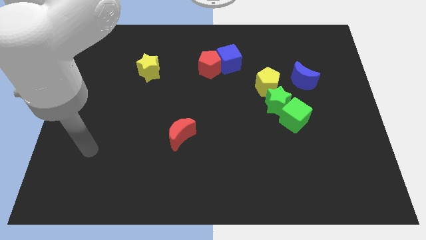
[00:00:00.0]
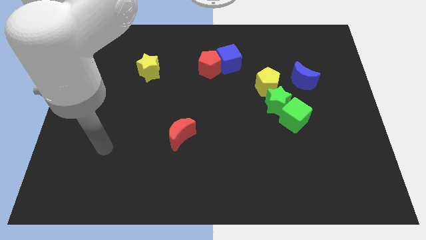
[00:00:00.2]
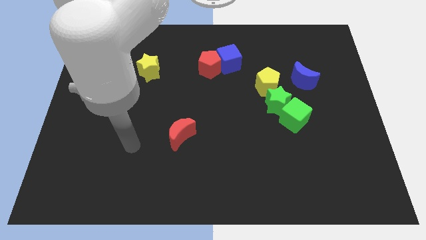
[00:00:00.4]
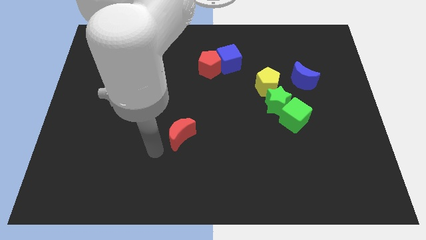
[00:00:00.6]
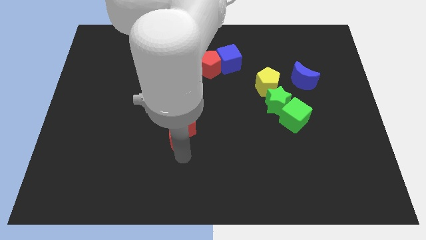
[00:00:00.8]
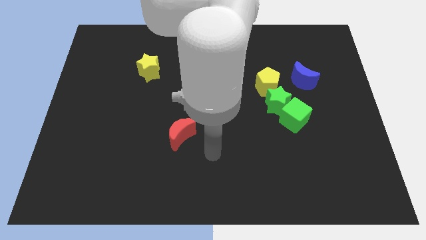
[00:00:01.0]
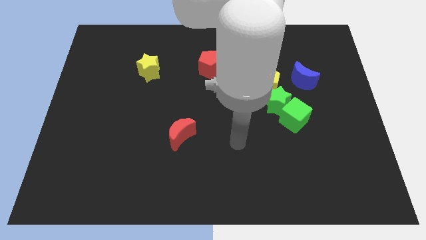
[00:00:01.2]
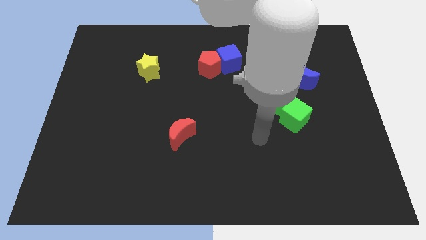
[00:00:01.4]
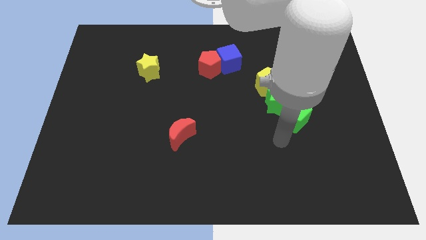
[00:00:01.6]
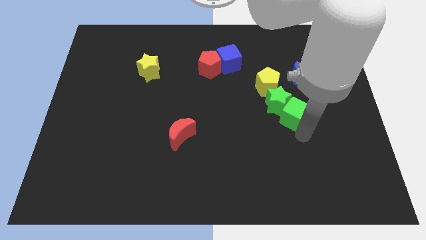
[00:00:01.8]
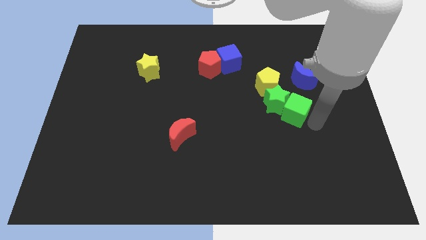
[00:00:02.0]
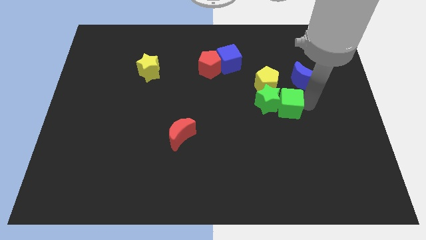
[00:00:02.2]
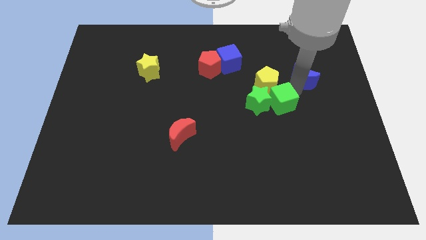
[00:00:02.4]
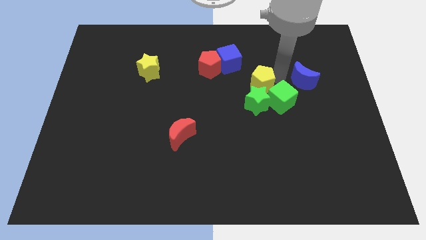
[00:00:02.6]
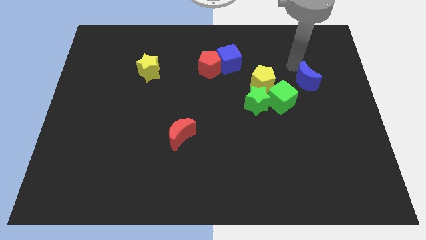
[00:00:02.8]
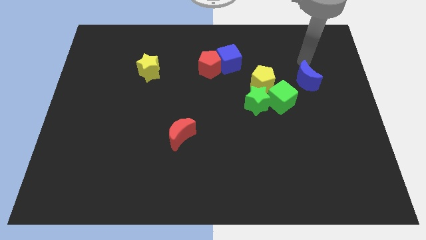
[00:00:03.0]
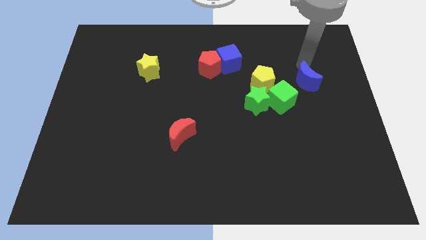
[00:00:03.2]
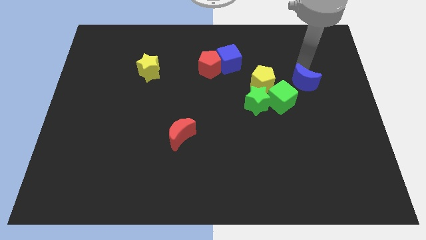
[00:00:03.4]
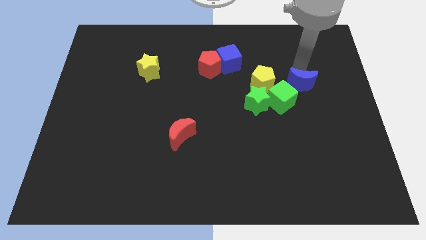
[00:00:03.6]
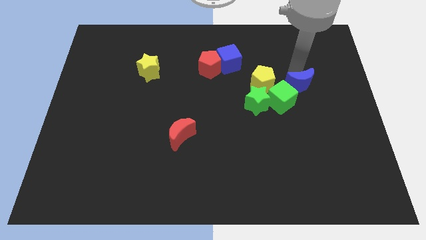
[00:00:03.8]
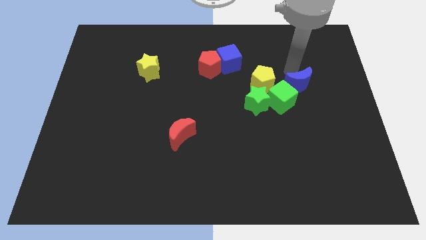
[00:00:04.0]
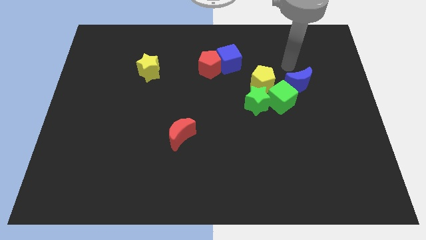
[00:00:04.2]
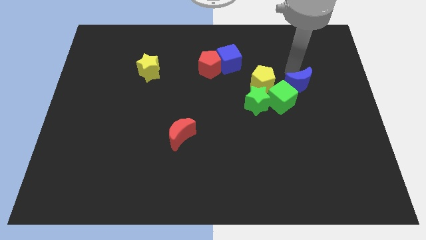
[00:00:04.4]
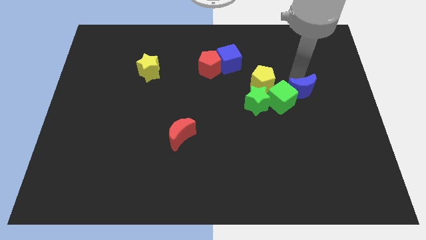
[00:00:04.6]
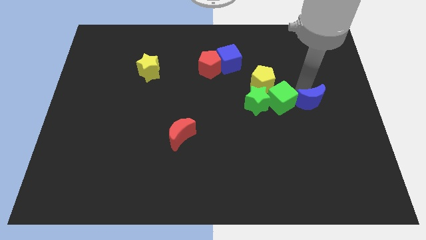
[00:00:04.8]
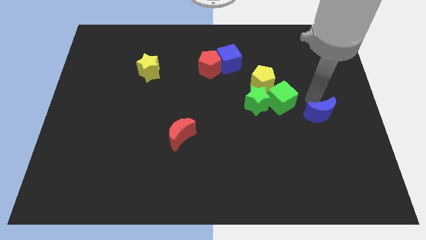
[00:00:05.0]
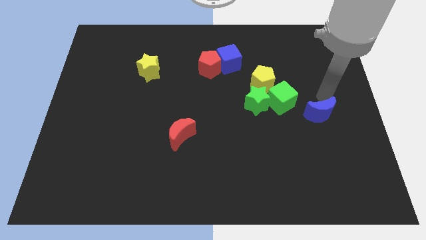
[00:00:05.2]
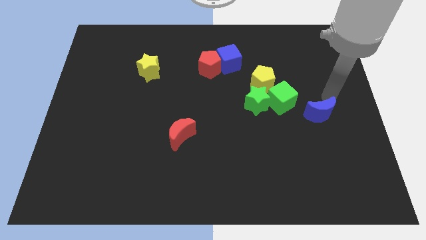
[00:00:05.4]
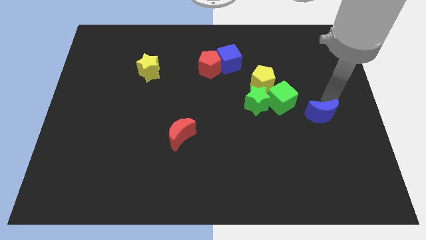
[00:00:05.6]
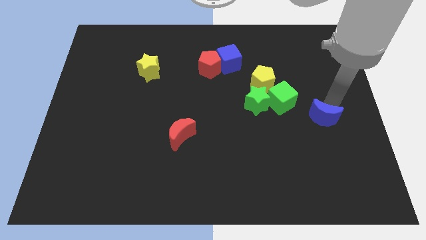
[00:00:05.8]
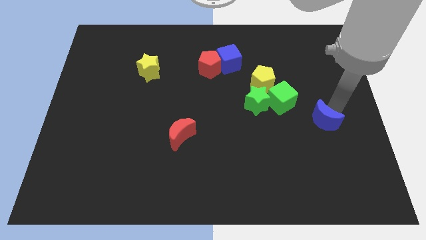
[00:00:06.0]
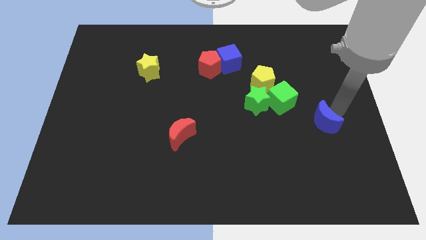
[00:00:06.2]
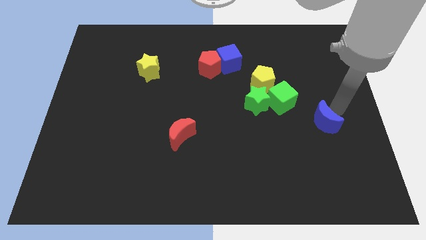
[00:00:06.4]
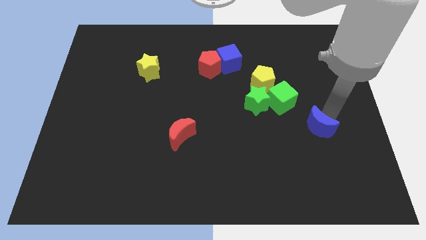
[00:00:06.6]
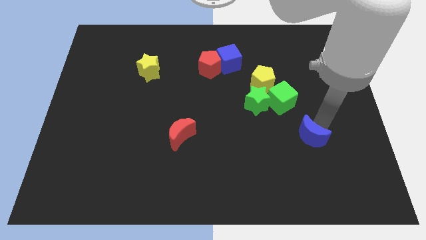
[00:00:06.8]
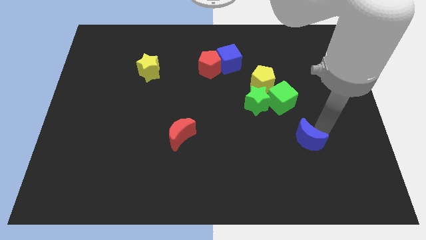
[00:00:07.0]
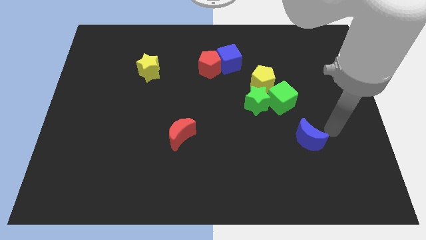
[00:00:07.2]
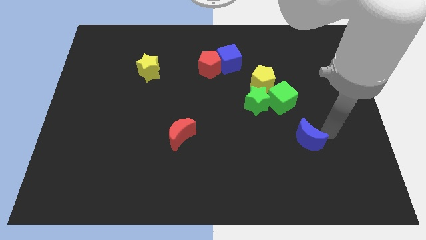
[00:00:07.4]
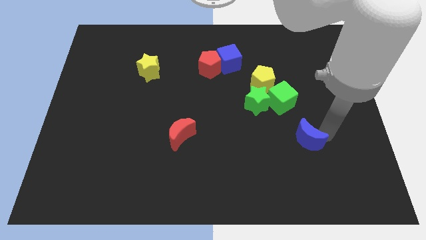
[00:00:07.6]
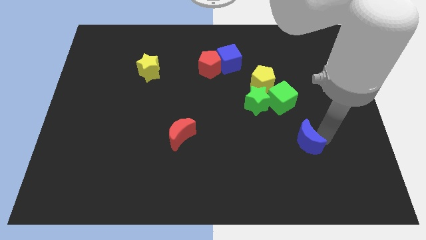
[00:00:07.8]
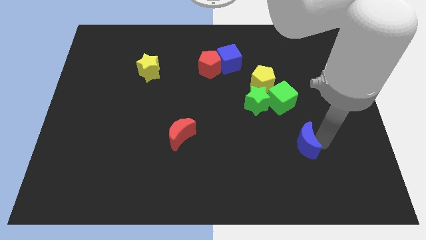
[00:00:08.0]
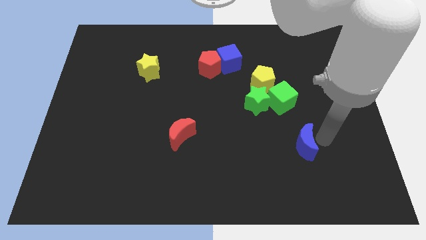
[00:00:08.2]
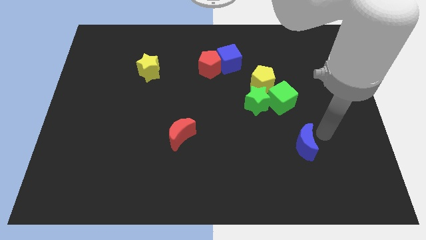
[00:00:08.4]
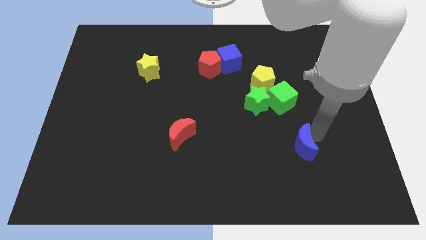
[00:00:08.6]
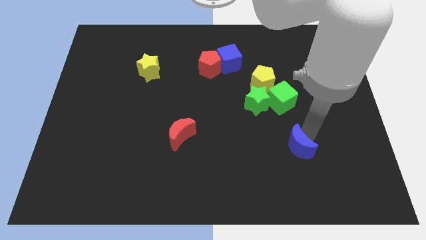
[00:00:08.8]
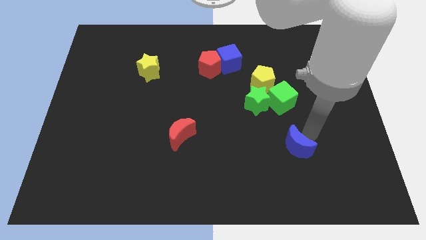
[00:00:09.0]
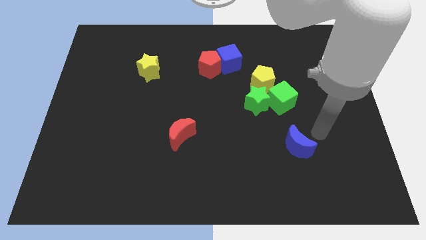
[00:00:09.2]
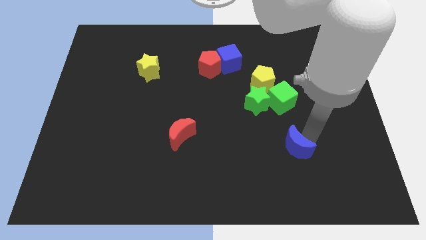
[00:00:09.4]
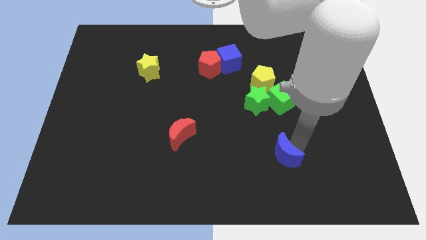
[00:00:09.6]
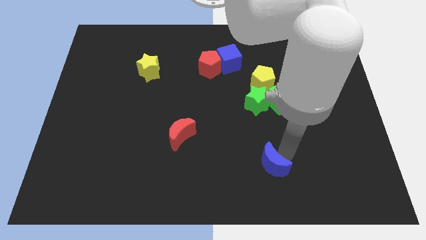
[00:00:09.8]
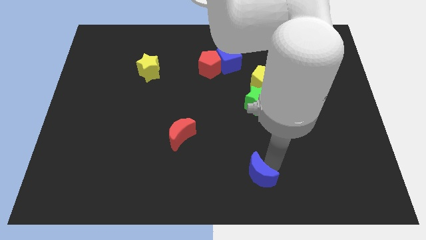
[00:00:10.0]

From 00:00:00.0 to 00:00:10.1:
slide the blue moon to the bottom side

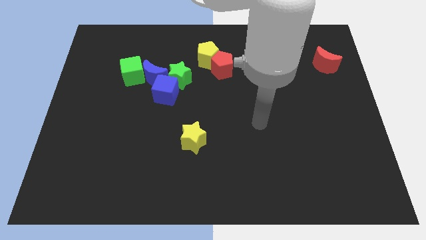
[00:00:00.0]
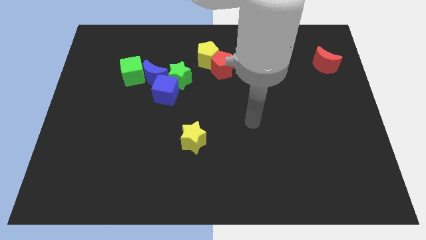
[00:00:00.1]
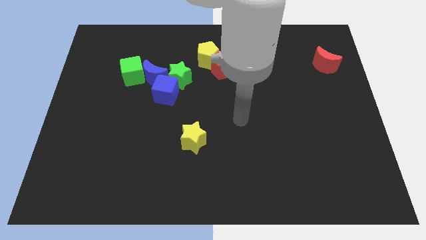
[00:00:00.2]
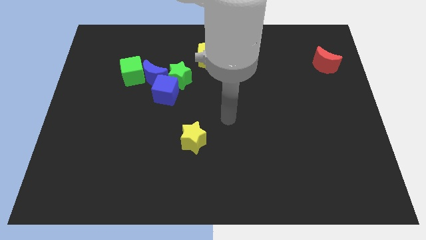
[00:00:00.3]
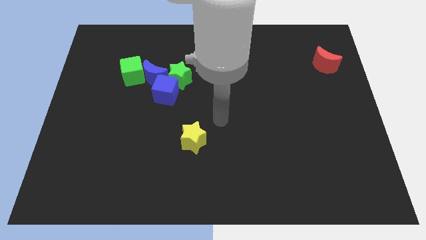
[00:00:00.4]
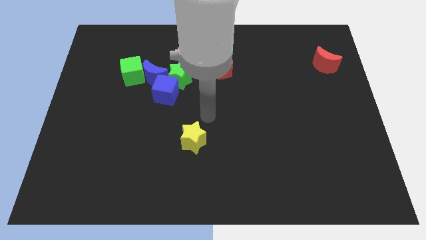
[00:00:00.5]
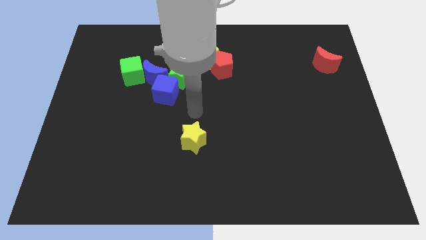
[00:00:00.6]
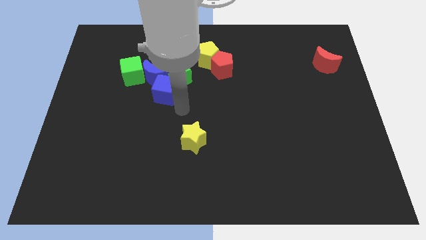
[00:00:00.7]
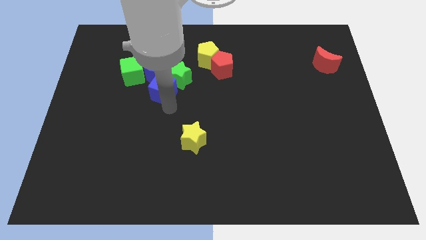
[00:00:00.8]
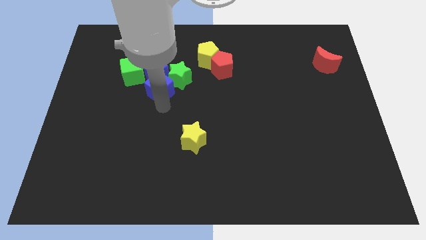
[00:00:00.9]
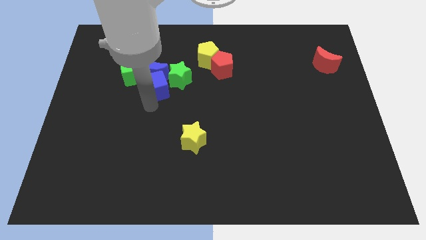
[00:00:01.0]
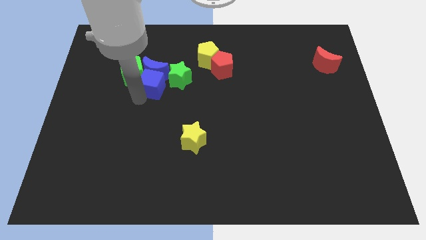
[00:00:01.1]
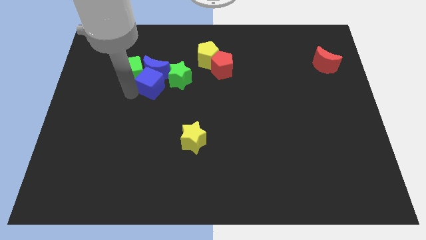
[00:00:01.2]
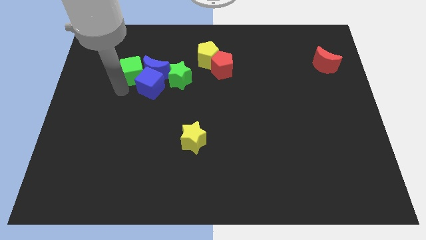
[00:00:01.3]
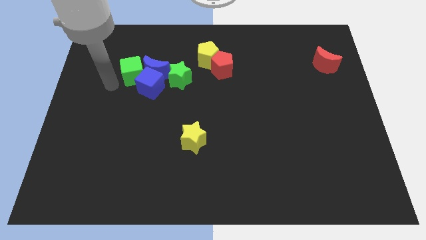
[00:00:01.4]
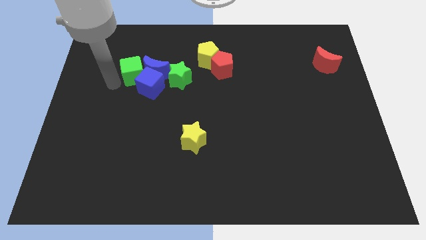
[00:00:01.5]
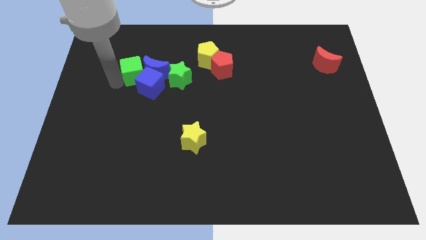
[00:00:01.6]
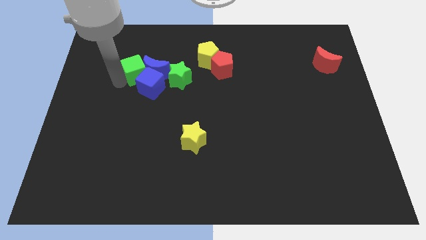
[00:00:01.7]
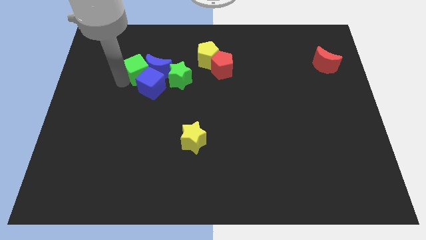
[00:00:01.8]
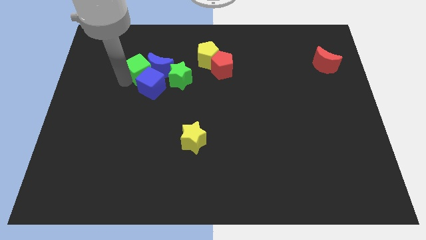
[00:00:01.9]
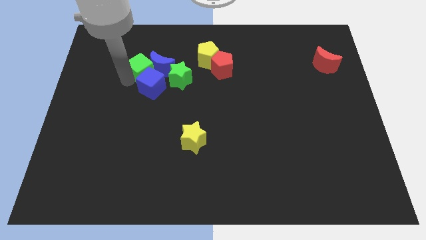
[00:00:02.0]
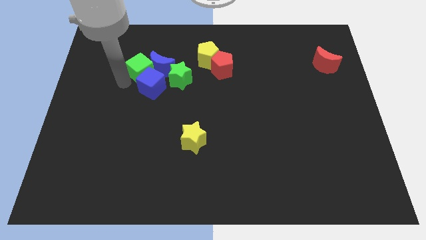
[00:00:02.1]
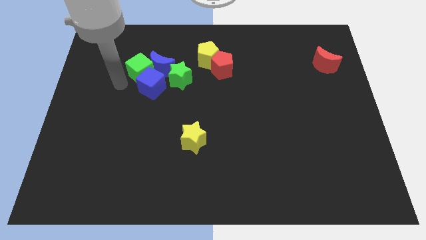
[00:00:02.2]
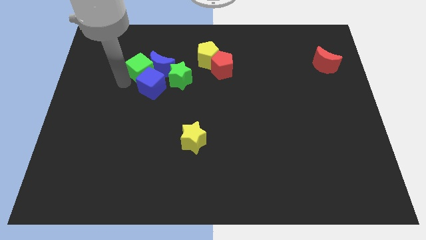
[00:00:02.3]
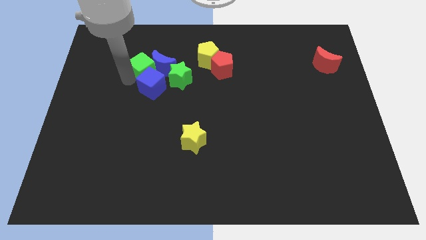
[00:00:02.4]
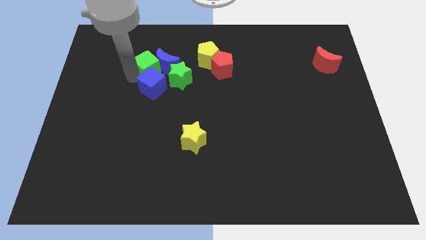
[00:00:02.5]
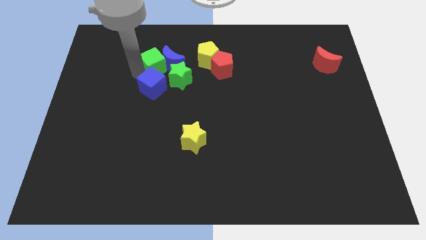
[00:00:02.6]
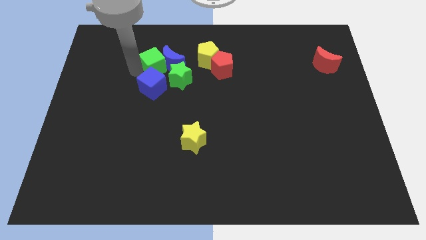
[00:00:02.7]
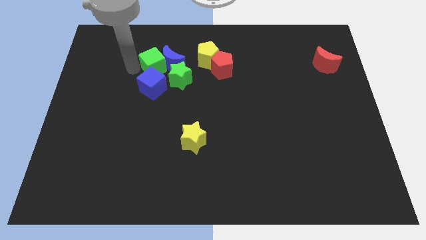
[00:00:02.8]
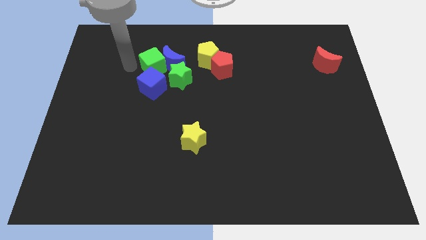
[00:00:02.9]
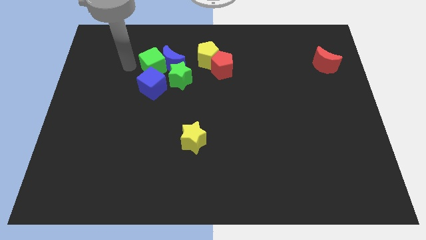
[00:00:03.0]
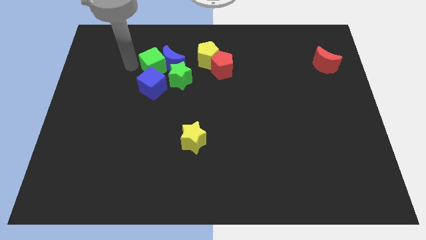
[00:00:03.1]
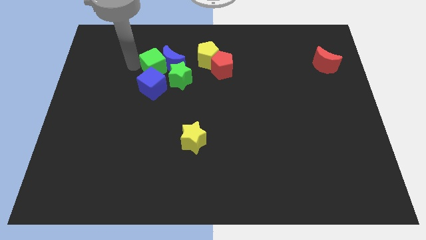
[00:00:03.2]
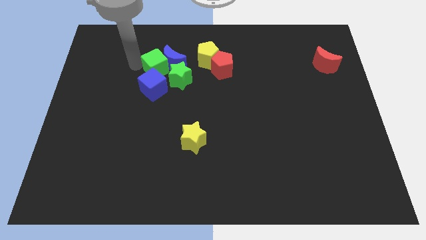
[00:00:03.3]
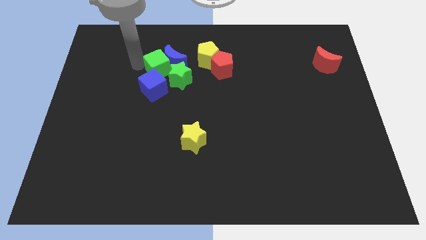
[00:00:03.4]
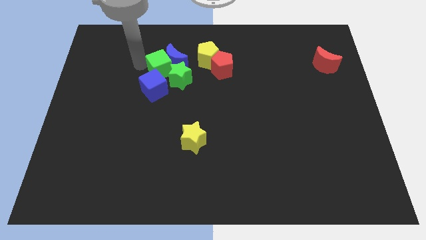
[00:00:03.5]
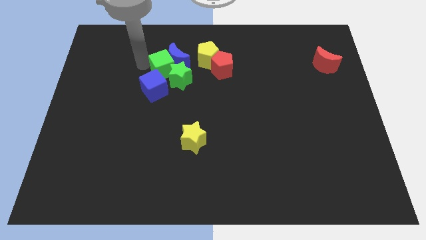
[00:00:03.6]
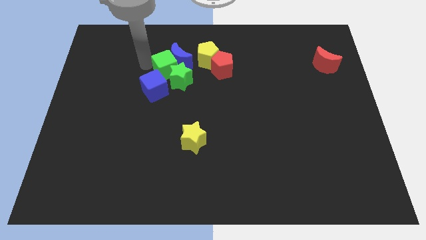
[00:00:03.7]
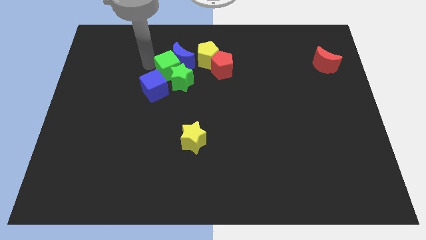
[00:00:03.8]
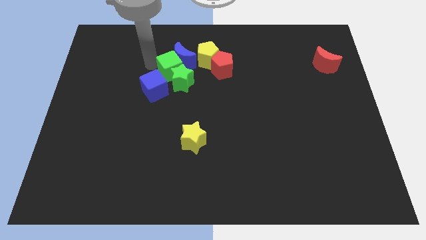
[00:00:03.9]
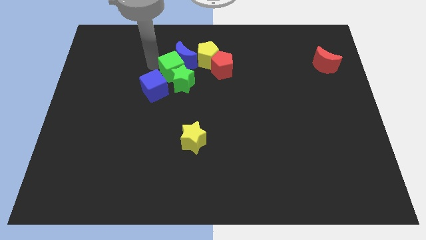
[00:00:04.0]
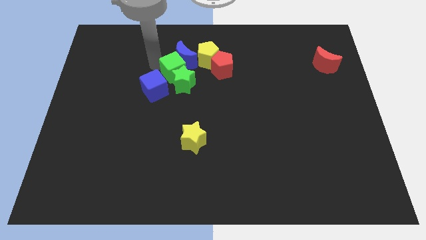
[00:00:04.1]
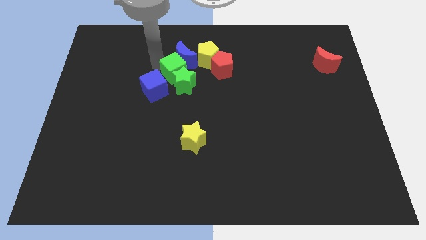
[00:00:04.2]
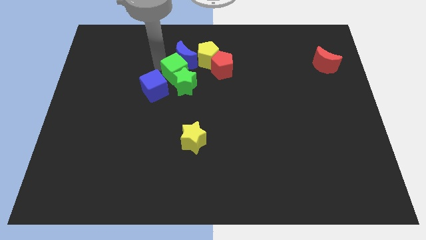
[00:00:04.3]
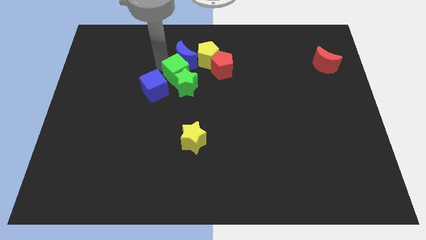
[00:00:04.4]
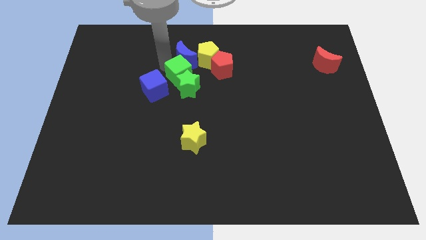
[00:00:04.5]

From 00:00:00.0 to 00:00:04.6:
move the green cube to the middle of the board
